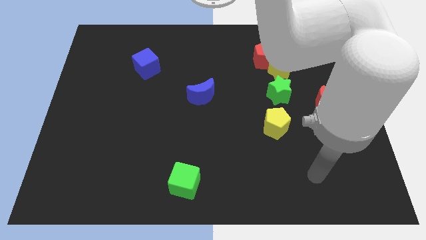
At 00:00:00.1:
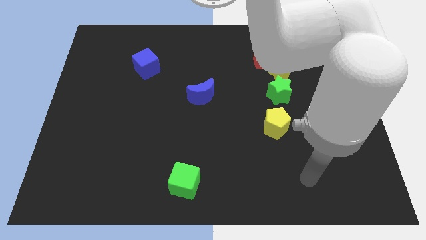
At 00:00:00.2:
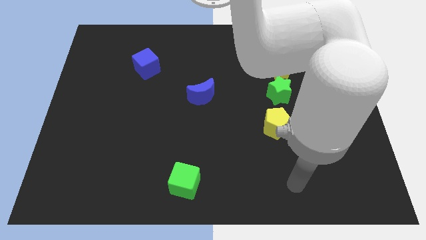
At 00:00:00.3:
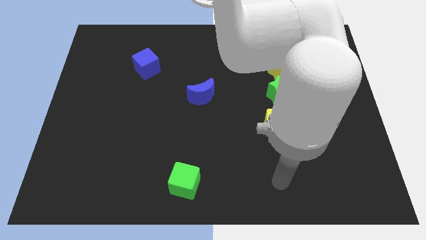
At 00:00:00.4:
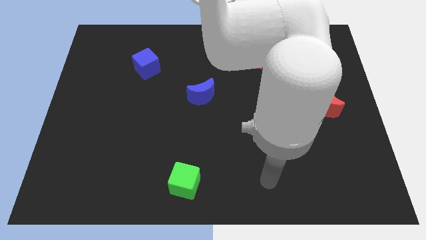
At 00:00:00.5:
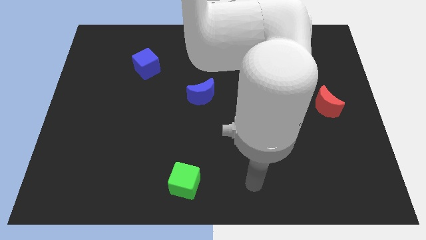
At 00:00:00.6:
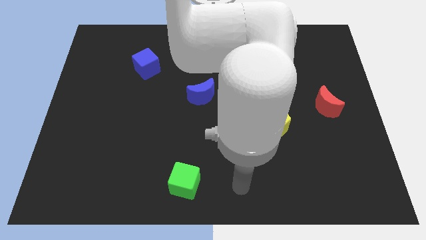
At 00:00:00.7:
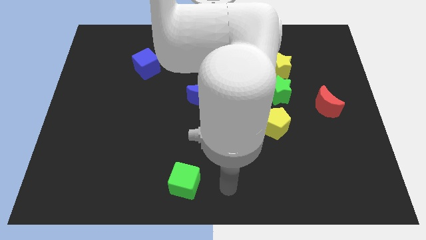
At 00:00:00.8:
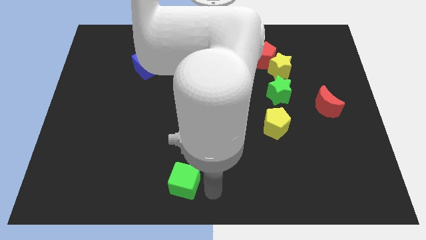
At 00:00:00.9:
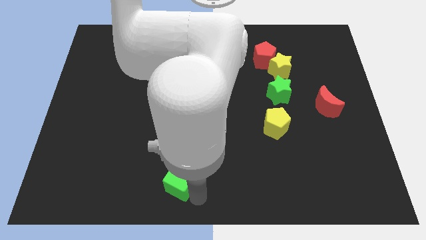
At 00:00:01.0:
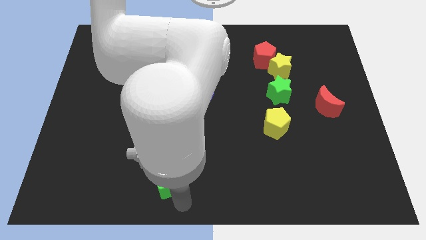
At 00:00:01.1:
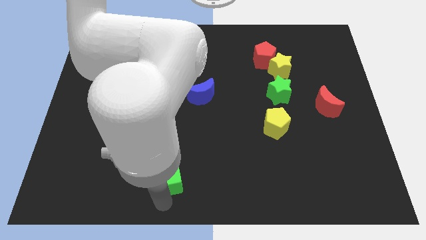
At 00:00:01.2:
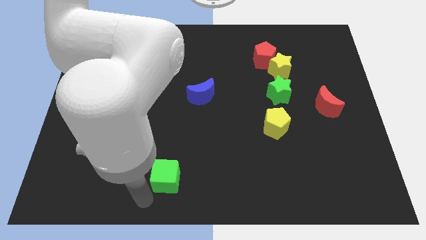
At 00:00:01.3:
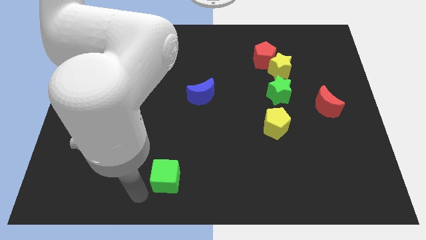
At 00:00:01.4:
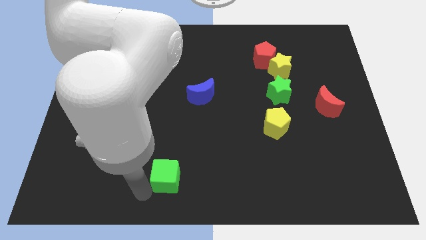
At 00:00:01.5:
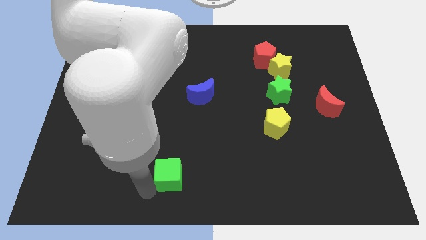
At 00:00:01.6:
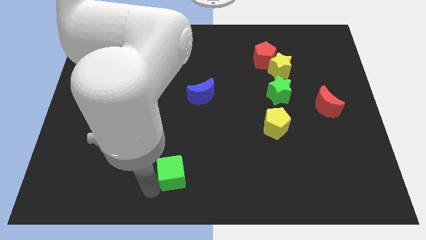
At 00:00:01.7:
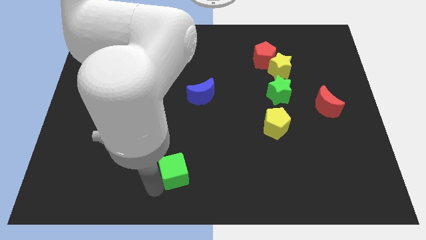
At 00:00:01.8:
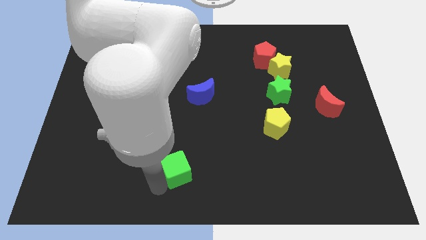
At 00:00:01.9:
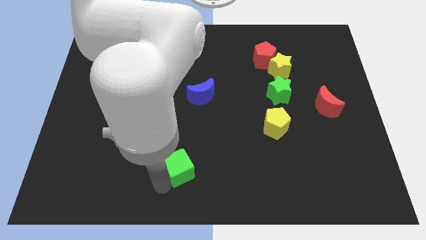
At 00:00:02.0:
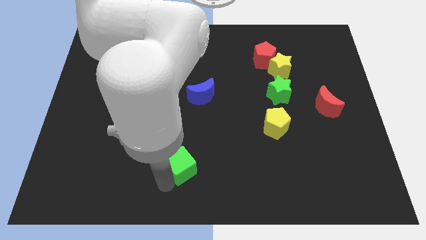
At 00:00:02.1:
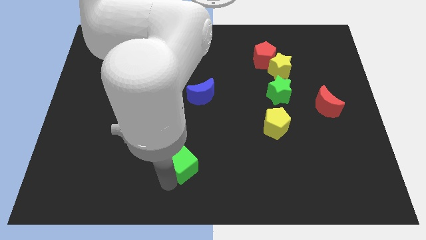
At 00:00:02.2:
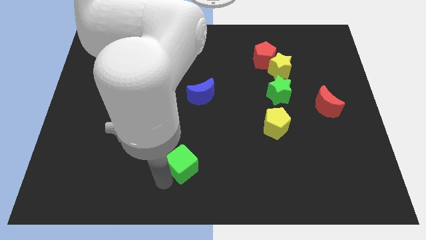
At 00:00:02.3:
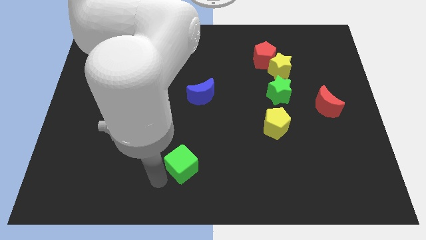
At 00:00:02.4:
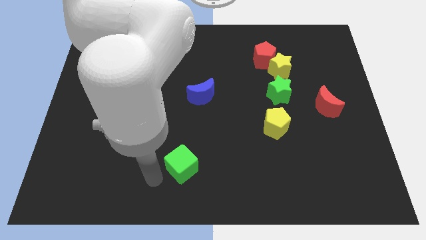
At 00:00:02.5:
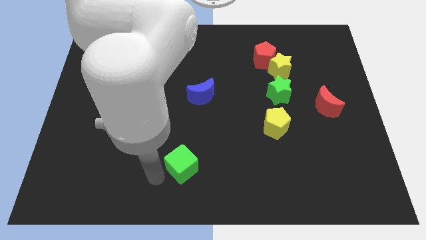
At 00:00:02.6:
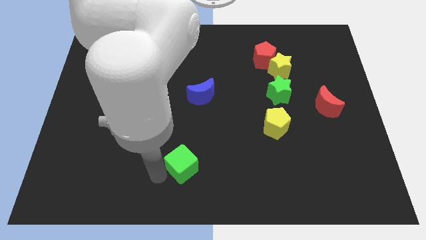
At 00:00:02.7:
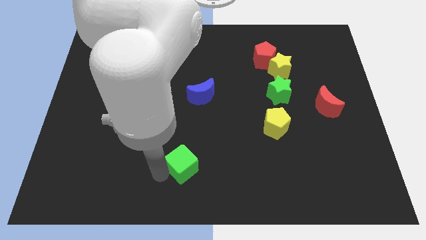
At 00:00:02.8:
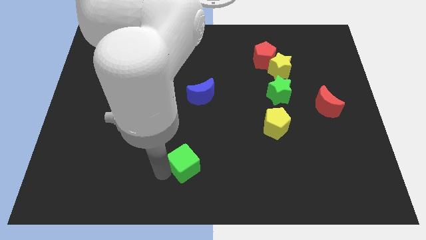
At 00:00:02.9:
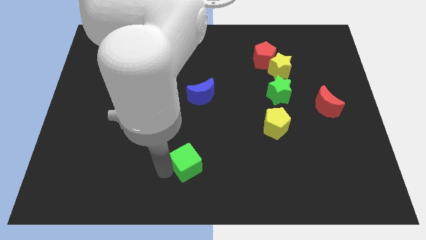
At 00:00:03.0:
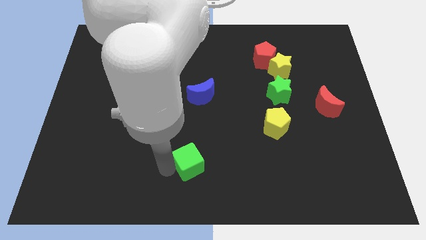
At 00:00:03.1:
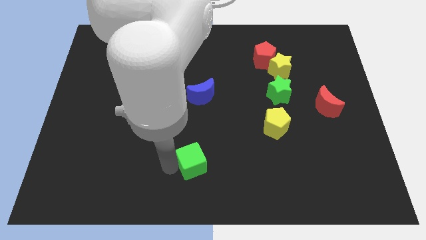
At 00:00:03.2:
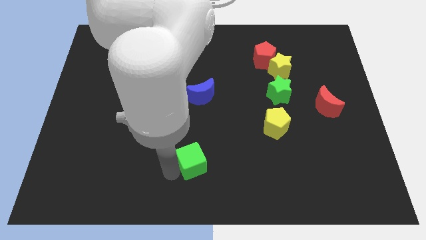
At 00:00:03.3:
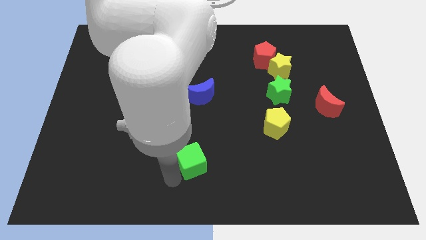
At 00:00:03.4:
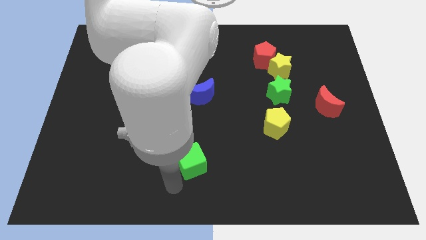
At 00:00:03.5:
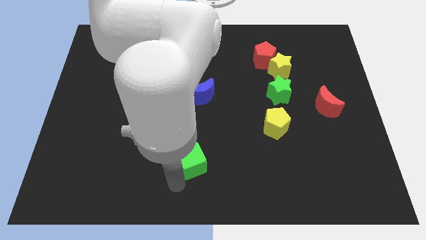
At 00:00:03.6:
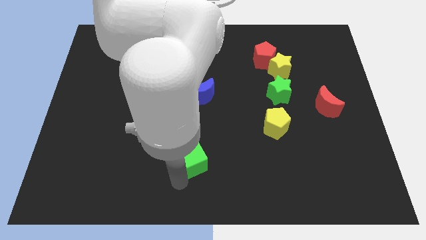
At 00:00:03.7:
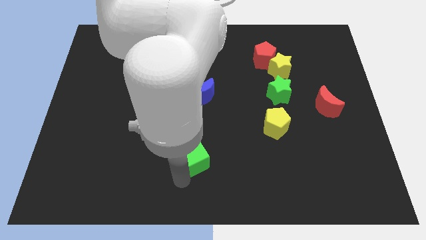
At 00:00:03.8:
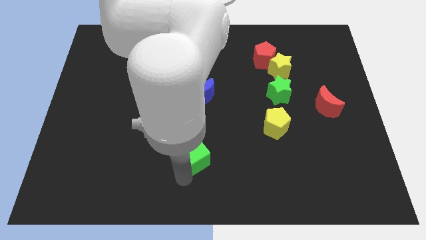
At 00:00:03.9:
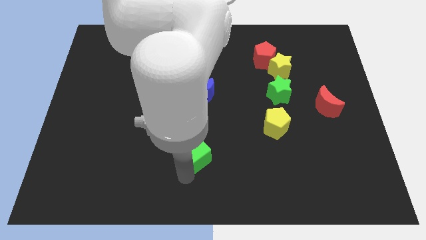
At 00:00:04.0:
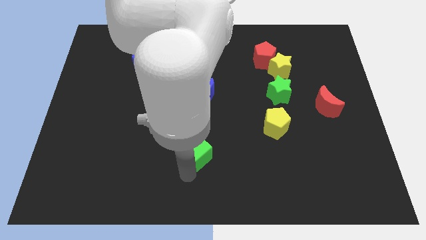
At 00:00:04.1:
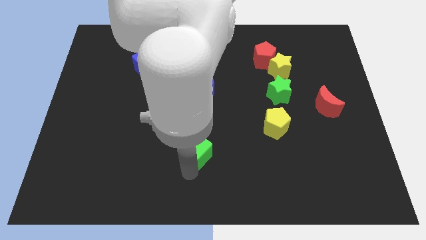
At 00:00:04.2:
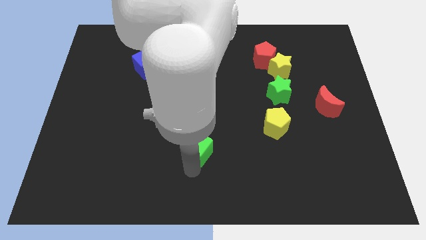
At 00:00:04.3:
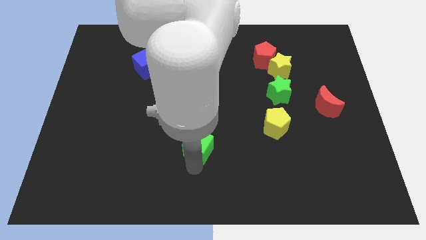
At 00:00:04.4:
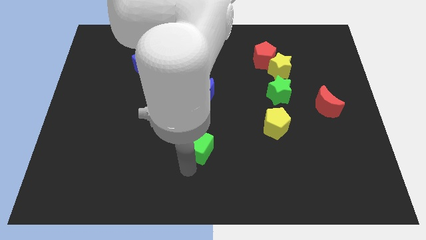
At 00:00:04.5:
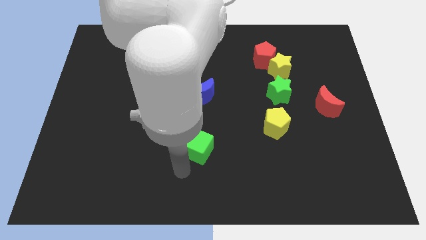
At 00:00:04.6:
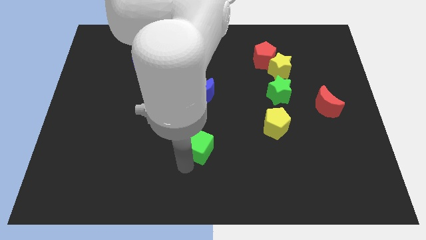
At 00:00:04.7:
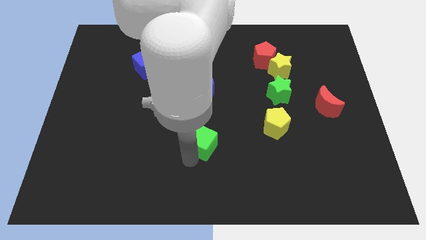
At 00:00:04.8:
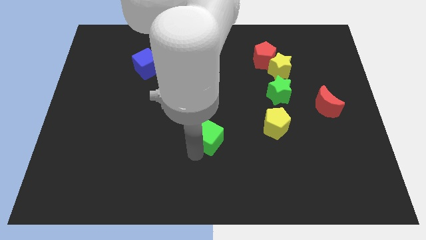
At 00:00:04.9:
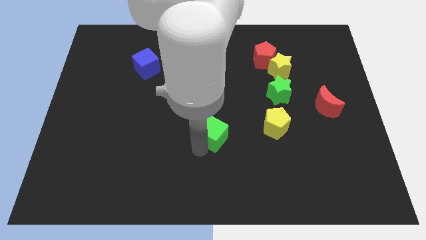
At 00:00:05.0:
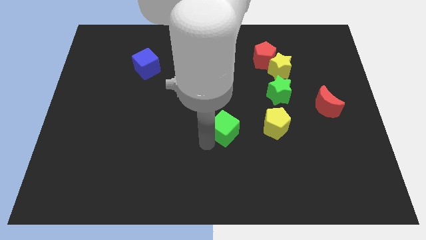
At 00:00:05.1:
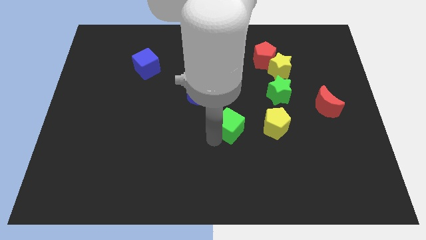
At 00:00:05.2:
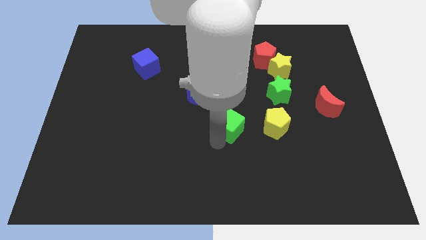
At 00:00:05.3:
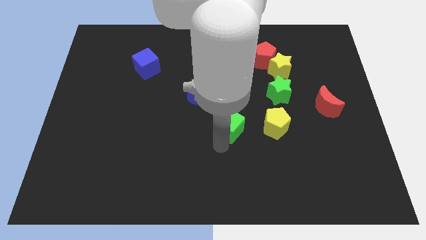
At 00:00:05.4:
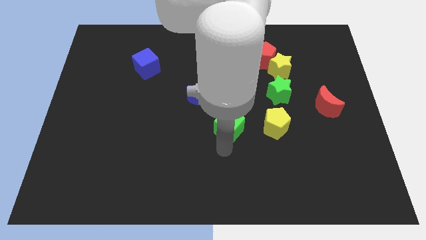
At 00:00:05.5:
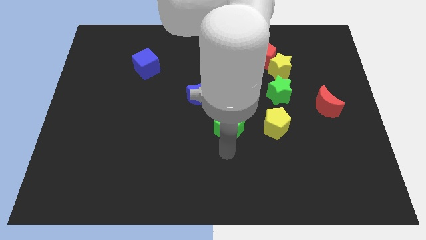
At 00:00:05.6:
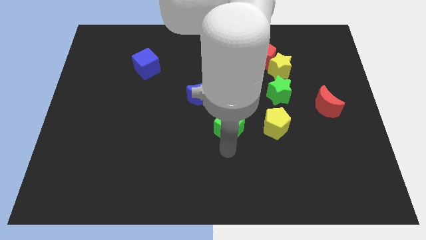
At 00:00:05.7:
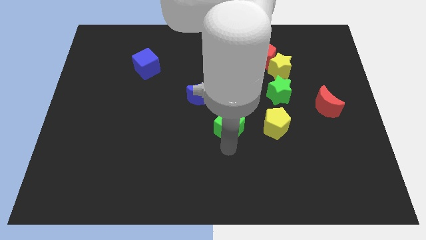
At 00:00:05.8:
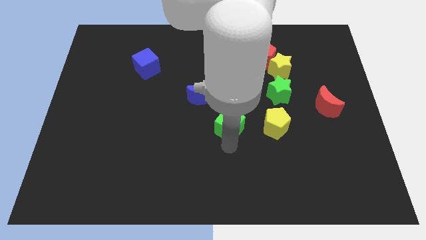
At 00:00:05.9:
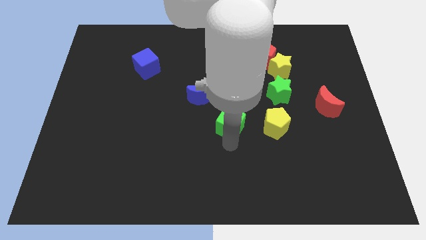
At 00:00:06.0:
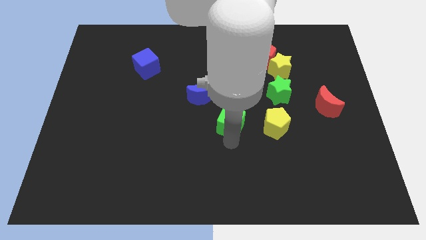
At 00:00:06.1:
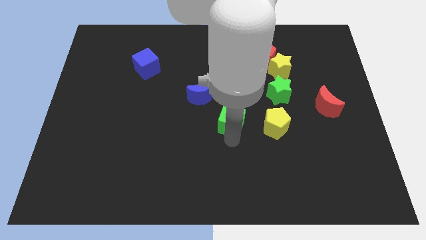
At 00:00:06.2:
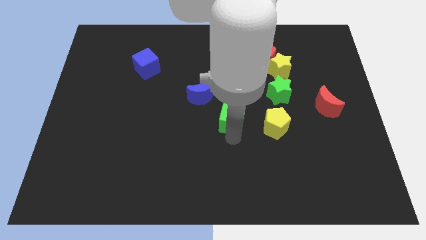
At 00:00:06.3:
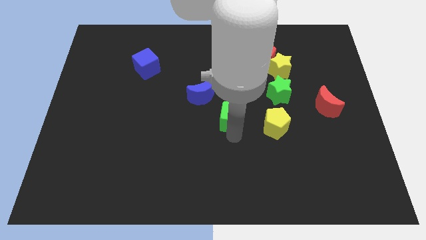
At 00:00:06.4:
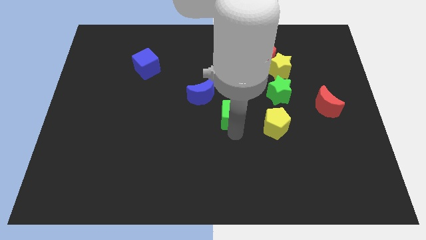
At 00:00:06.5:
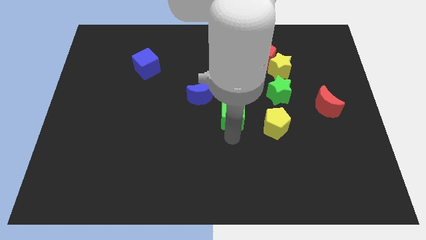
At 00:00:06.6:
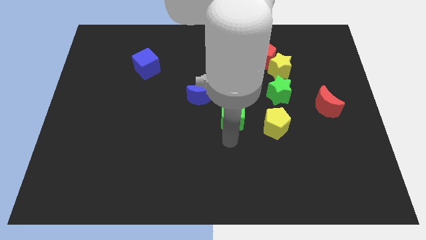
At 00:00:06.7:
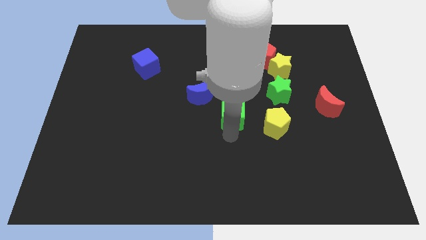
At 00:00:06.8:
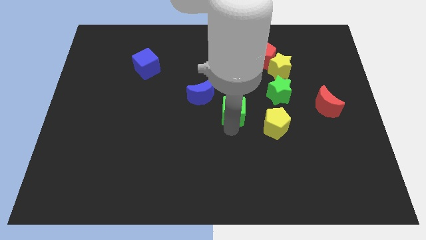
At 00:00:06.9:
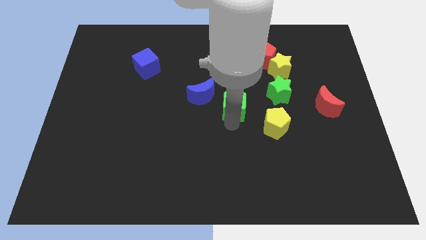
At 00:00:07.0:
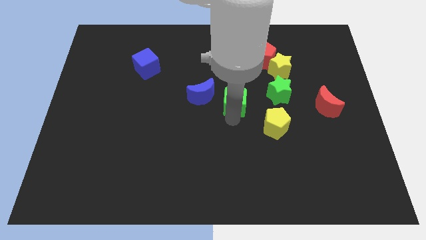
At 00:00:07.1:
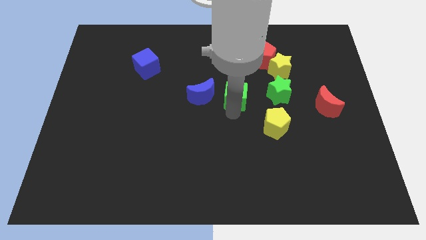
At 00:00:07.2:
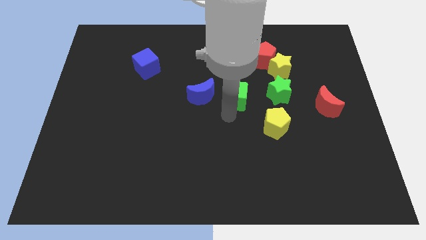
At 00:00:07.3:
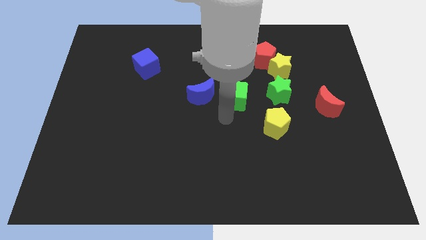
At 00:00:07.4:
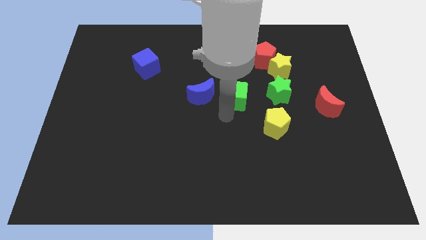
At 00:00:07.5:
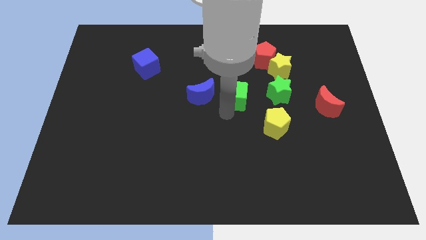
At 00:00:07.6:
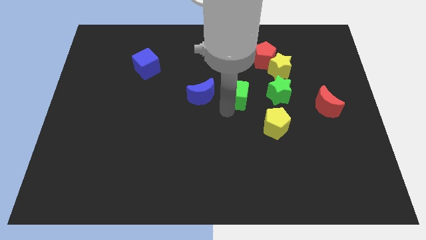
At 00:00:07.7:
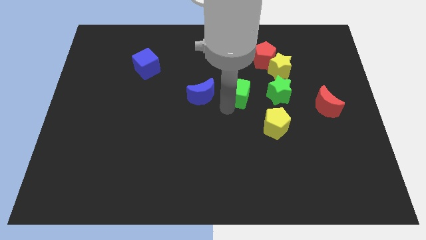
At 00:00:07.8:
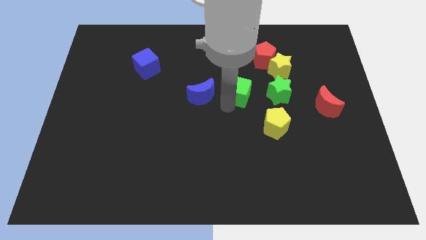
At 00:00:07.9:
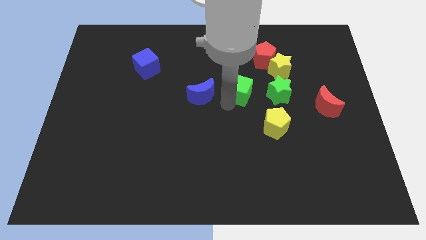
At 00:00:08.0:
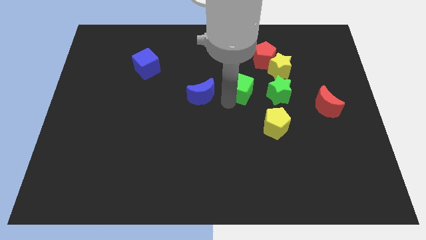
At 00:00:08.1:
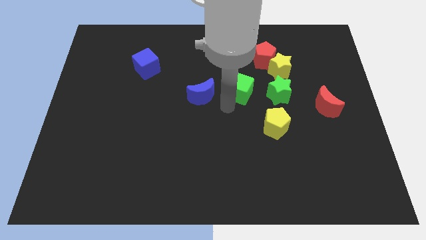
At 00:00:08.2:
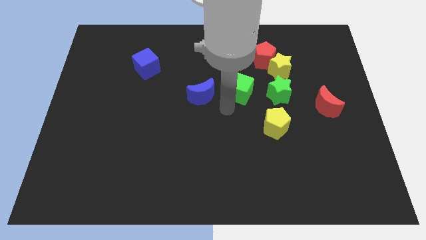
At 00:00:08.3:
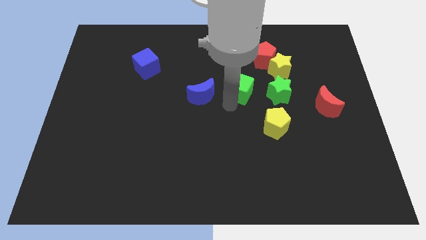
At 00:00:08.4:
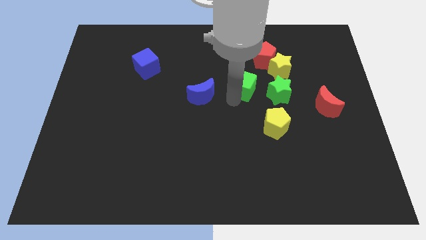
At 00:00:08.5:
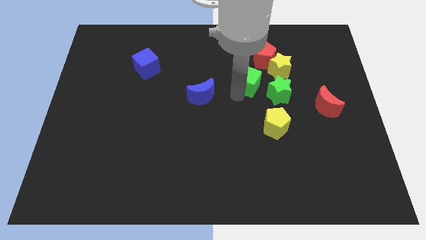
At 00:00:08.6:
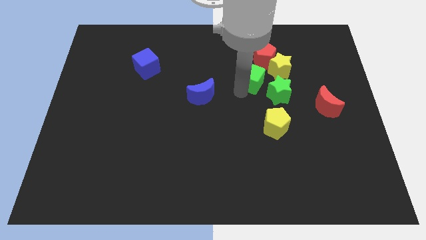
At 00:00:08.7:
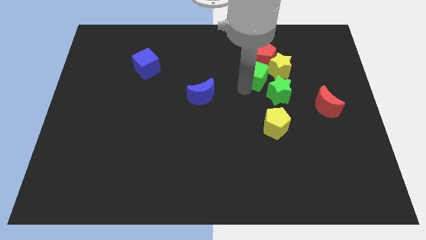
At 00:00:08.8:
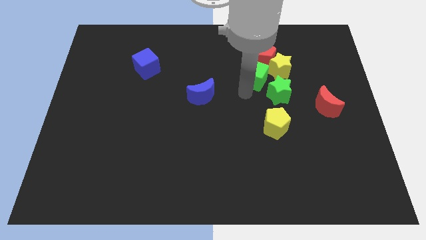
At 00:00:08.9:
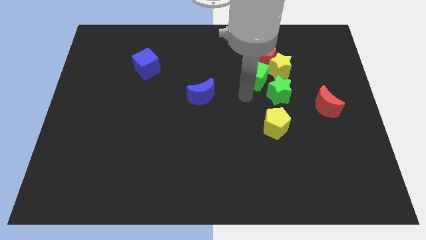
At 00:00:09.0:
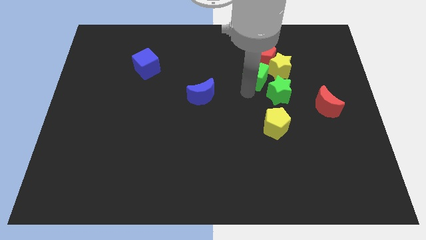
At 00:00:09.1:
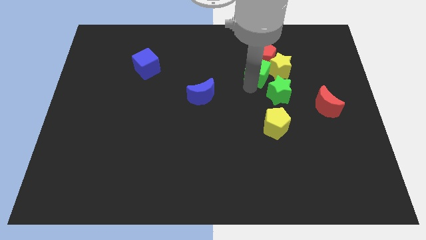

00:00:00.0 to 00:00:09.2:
slide the green cube towards the red pentagon
